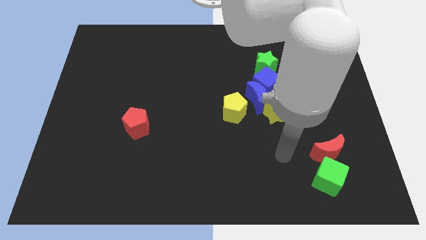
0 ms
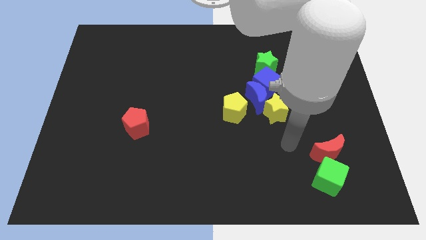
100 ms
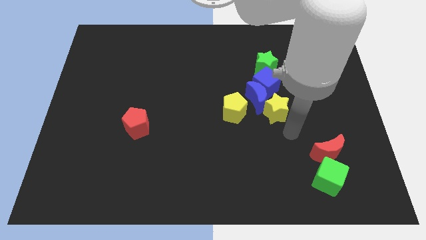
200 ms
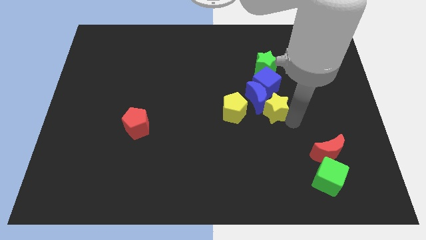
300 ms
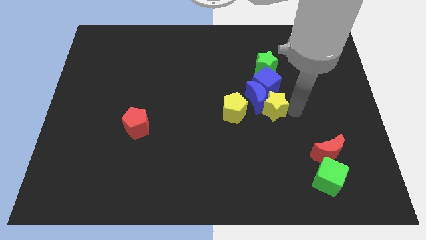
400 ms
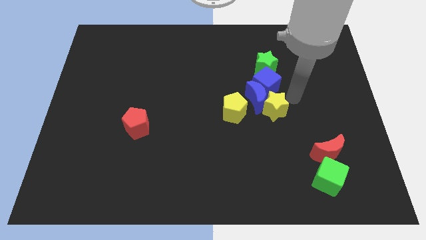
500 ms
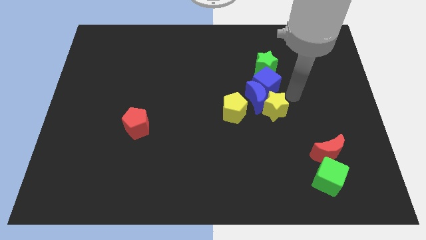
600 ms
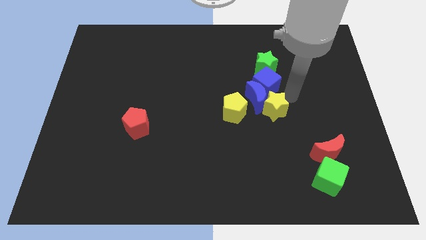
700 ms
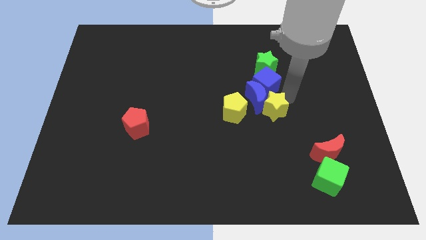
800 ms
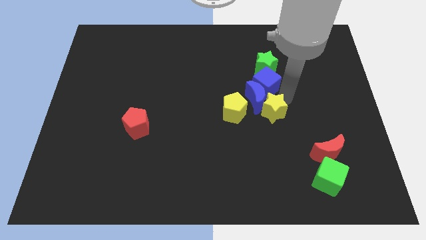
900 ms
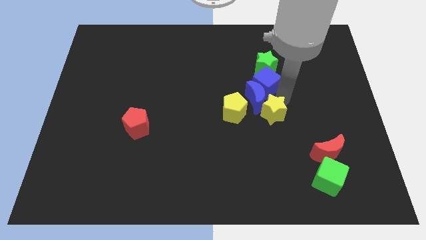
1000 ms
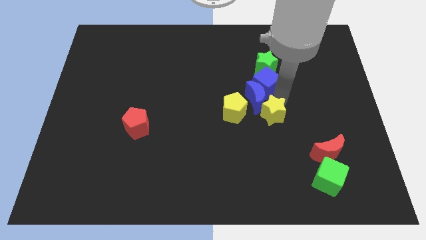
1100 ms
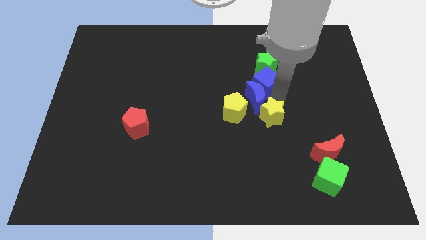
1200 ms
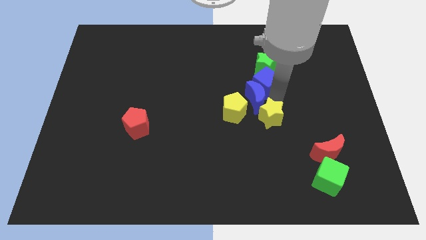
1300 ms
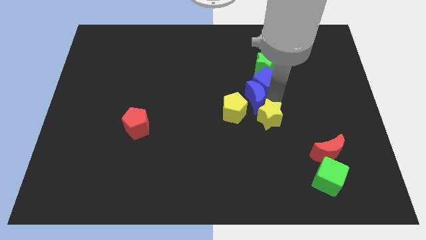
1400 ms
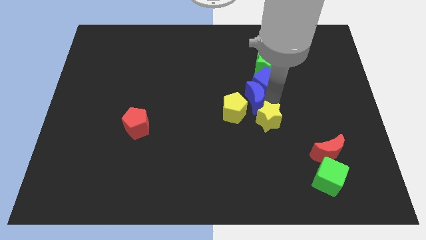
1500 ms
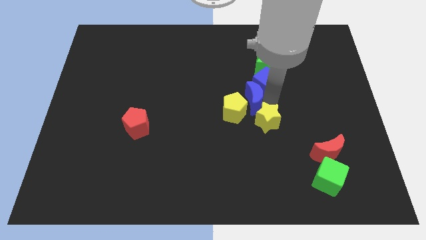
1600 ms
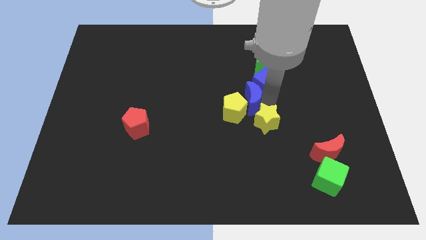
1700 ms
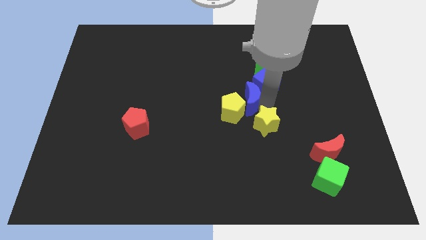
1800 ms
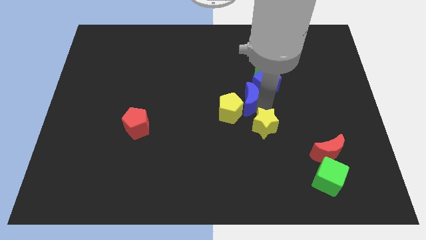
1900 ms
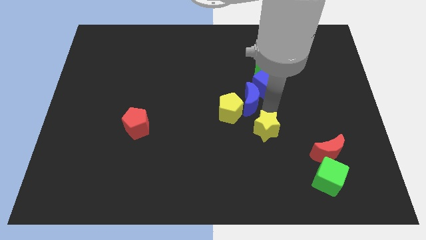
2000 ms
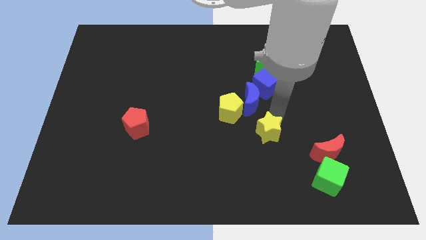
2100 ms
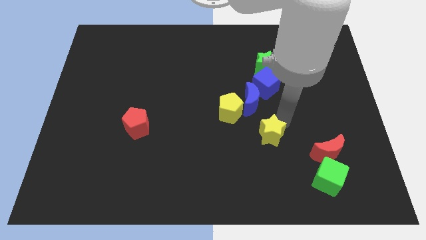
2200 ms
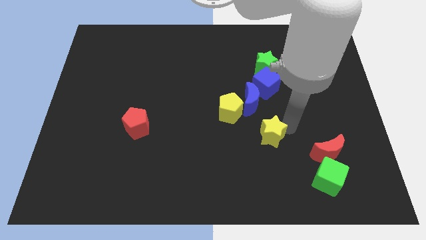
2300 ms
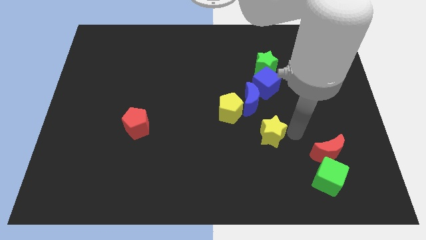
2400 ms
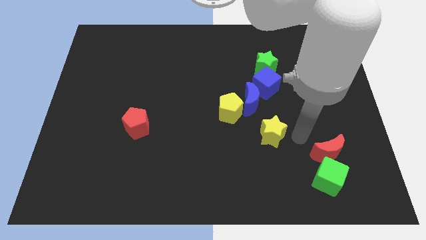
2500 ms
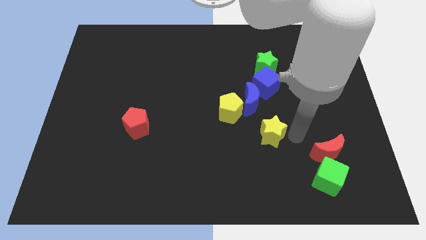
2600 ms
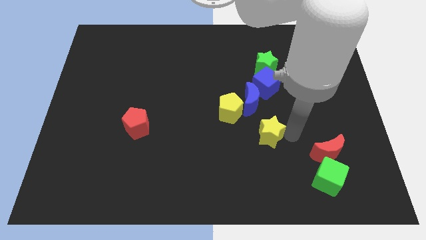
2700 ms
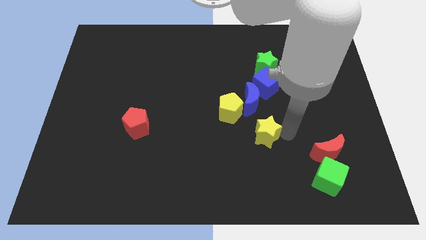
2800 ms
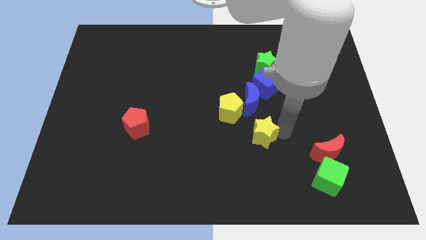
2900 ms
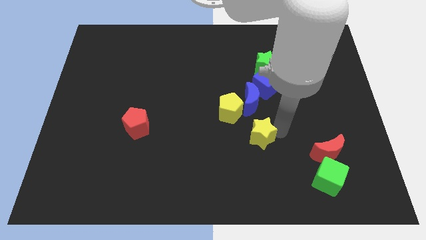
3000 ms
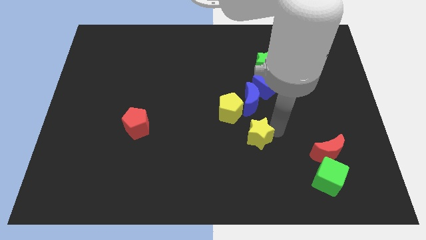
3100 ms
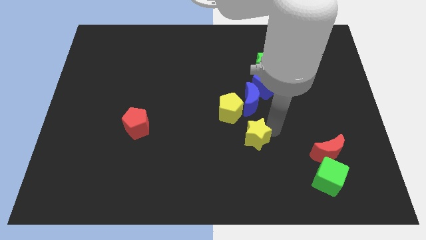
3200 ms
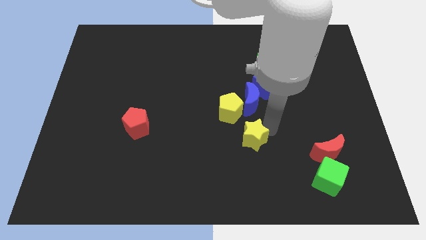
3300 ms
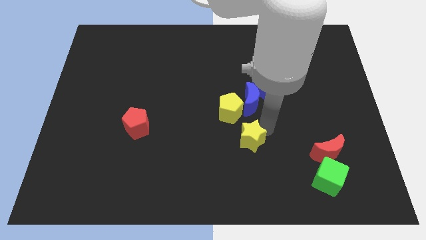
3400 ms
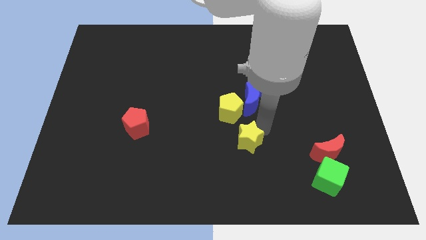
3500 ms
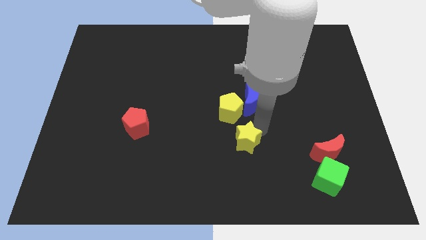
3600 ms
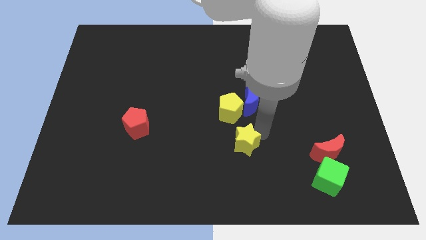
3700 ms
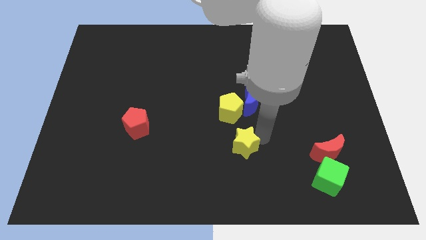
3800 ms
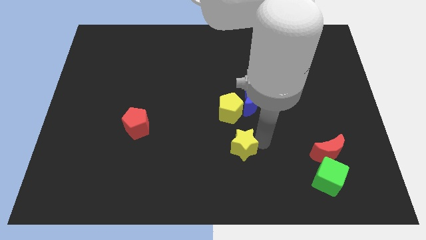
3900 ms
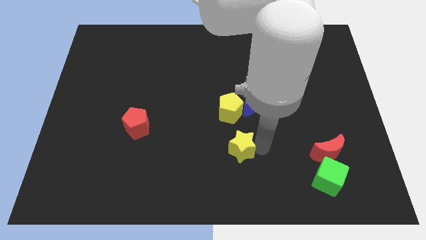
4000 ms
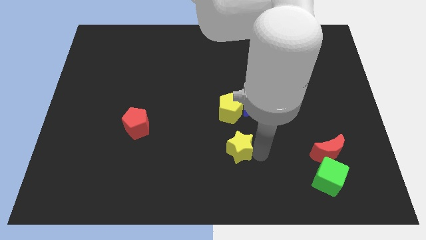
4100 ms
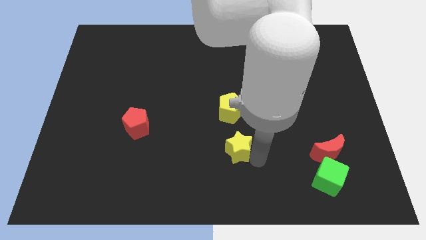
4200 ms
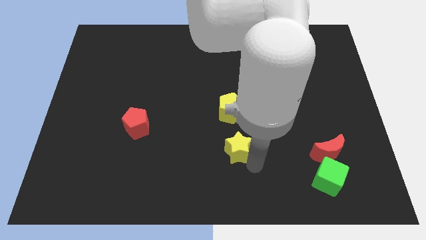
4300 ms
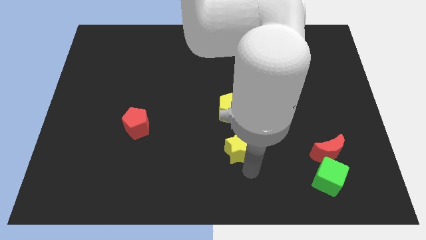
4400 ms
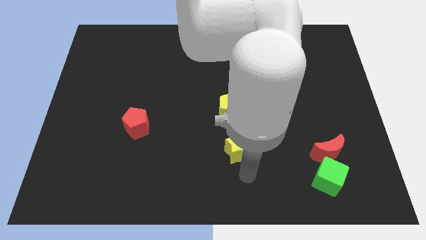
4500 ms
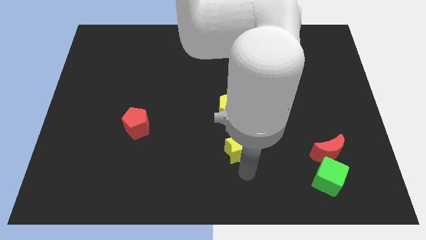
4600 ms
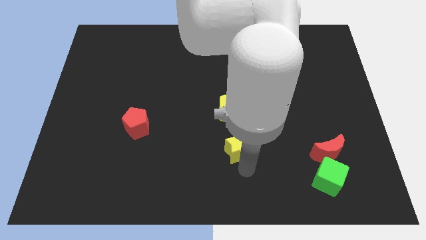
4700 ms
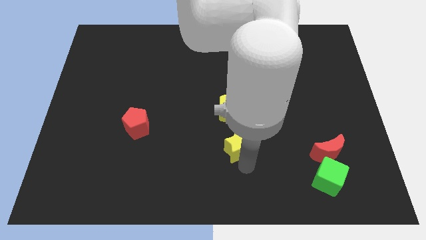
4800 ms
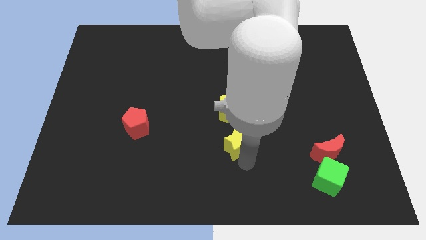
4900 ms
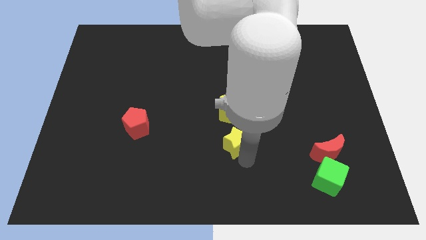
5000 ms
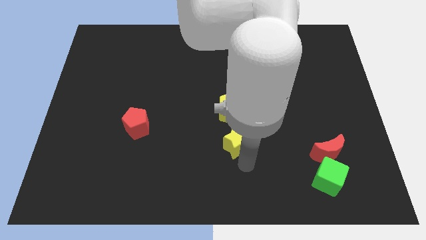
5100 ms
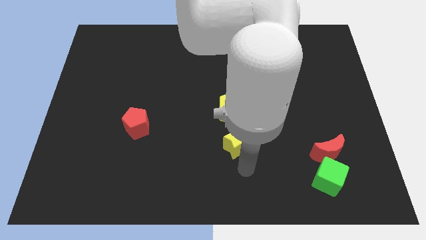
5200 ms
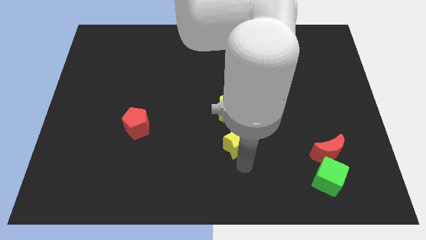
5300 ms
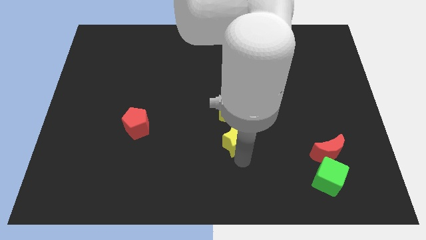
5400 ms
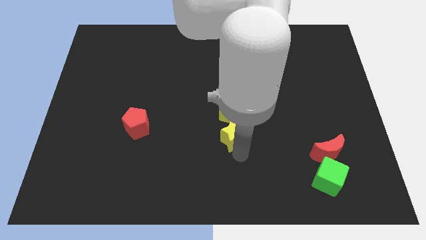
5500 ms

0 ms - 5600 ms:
put the yellow star to the middle
